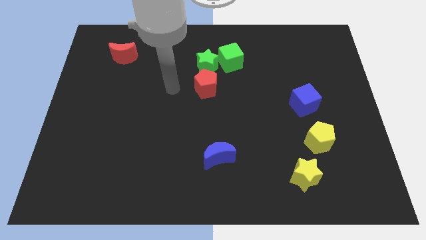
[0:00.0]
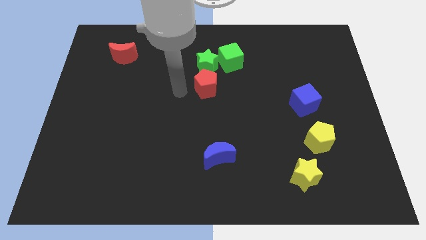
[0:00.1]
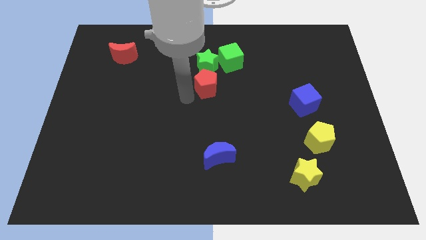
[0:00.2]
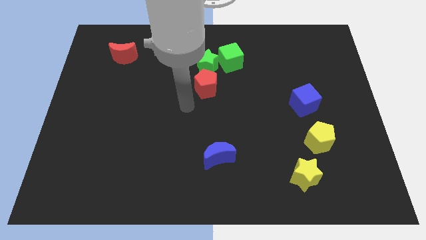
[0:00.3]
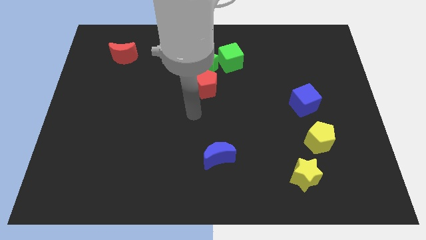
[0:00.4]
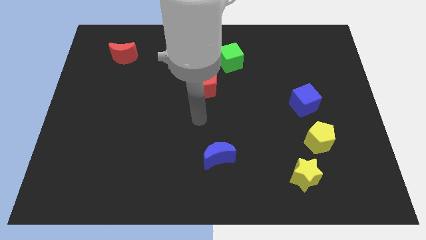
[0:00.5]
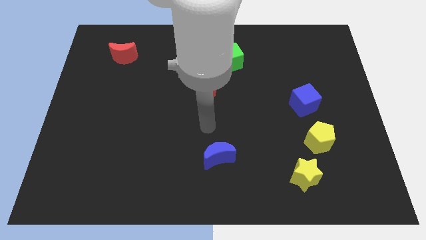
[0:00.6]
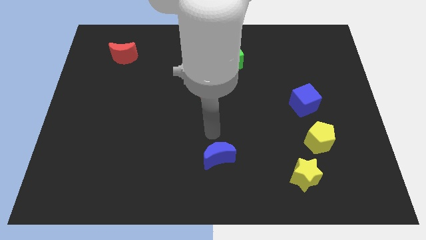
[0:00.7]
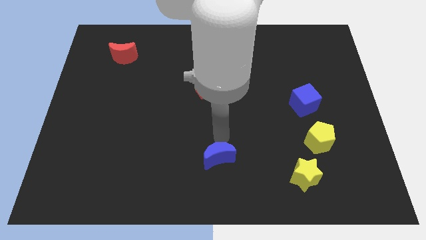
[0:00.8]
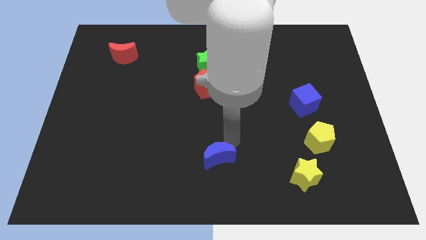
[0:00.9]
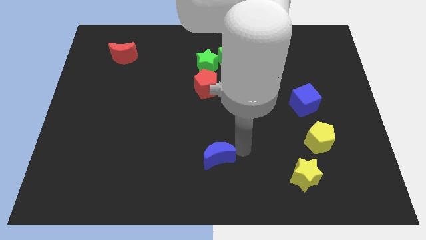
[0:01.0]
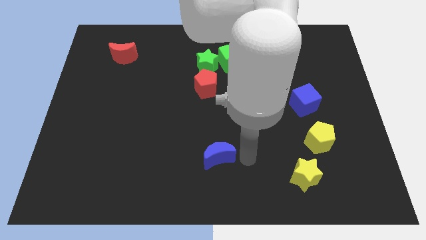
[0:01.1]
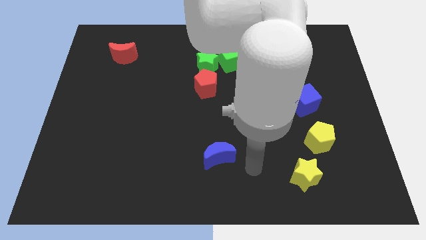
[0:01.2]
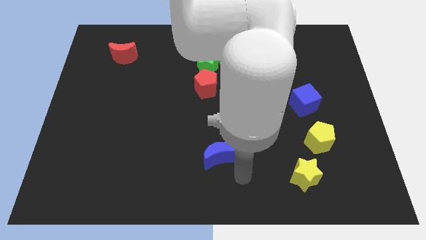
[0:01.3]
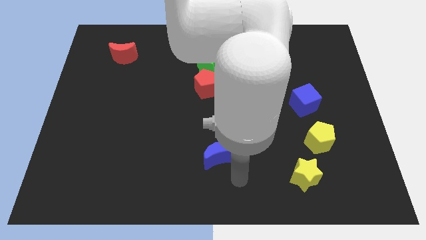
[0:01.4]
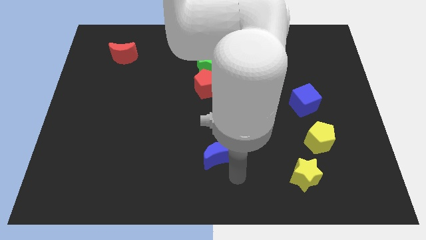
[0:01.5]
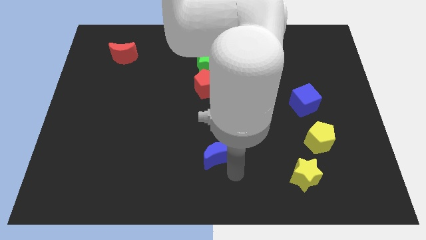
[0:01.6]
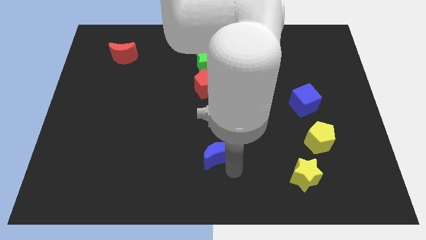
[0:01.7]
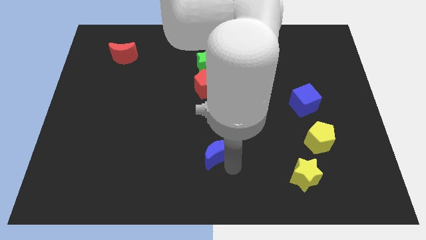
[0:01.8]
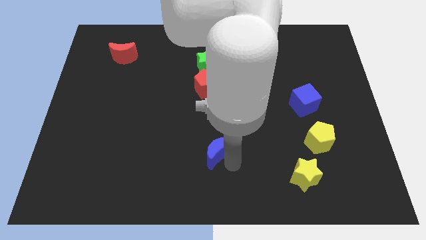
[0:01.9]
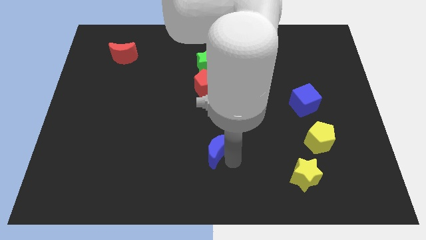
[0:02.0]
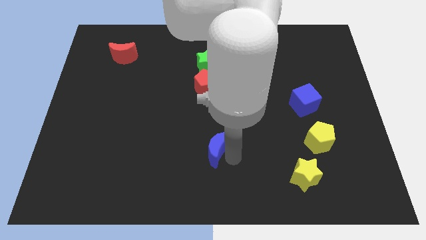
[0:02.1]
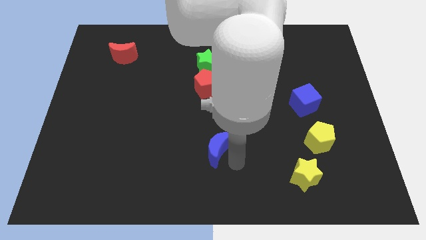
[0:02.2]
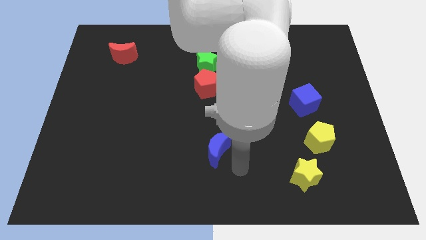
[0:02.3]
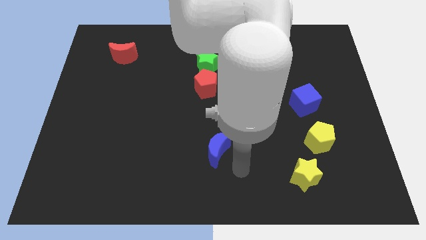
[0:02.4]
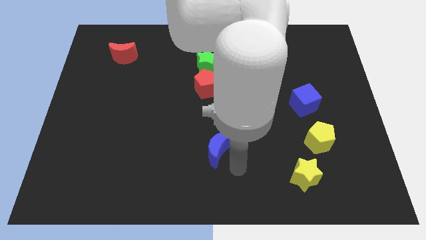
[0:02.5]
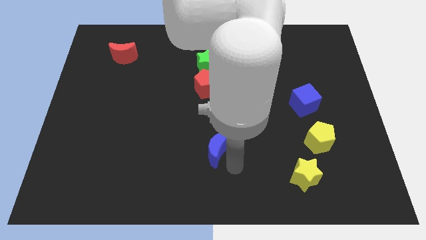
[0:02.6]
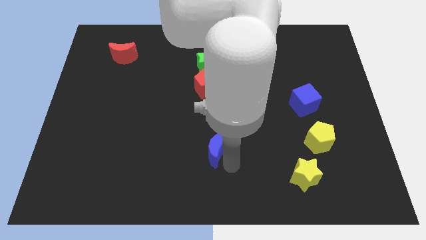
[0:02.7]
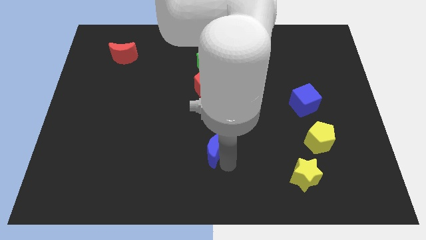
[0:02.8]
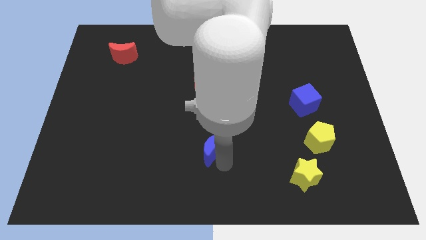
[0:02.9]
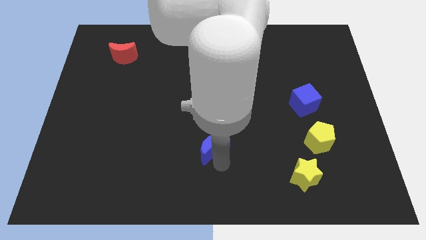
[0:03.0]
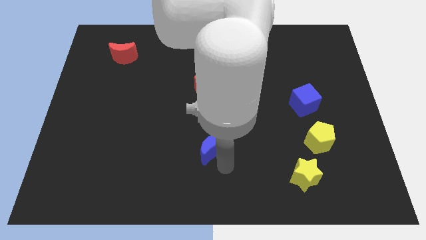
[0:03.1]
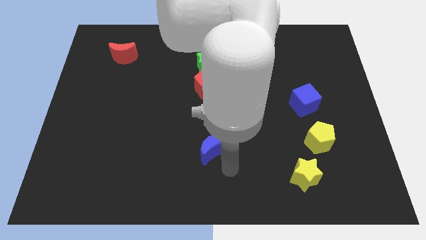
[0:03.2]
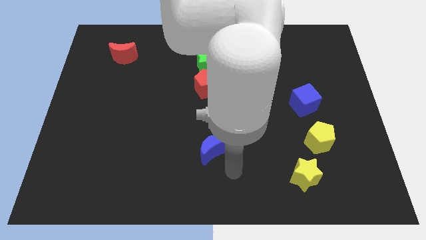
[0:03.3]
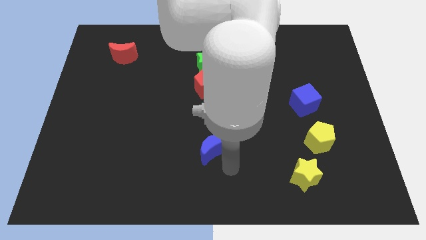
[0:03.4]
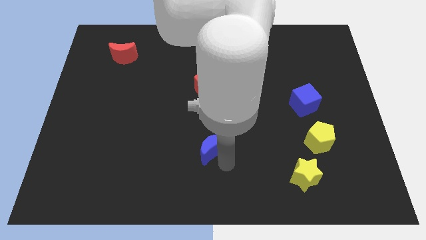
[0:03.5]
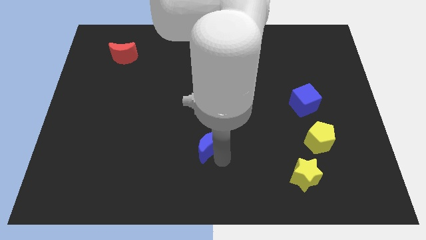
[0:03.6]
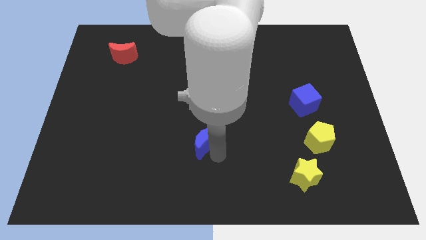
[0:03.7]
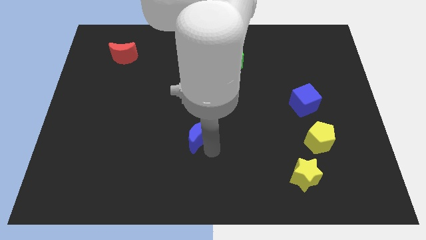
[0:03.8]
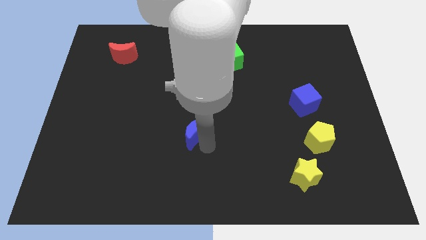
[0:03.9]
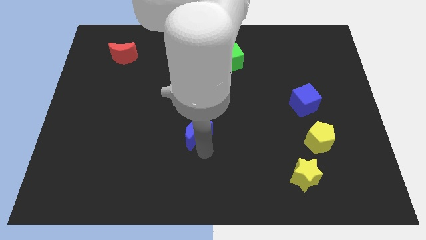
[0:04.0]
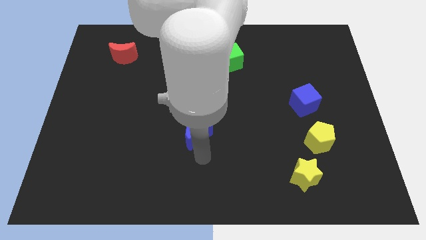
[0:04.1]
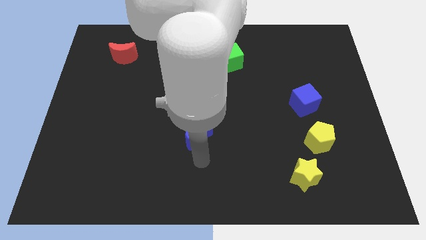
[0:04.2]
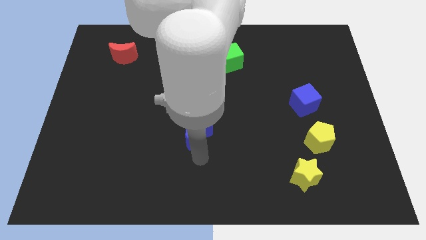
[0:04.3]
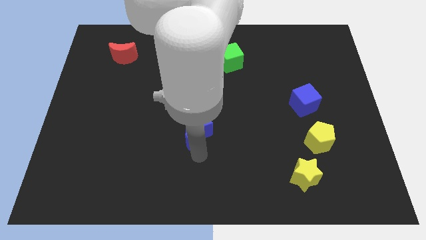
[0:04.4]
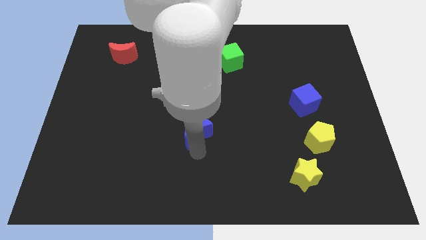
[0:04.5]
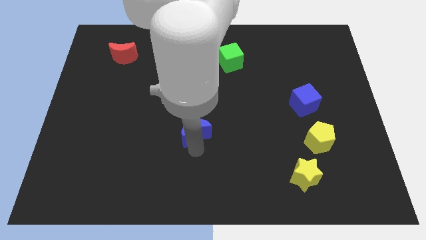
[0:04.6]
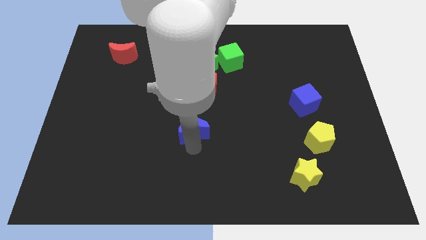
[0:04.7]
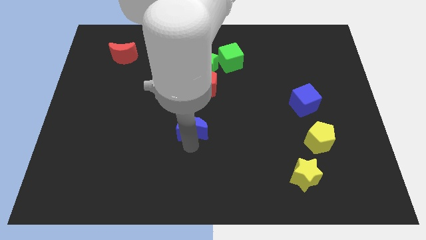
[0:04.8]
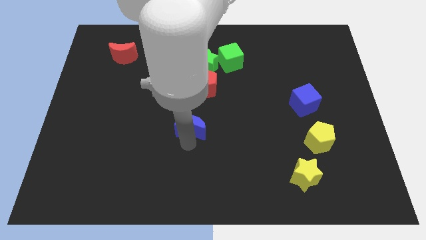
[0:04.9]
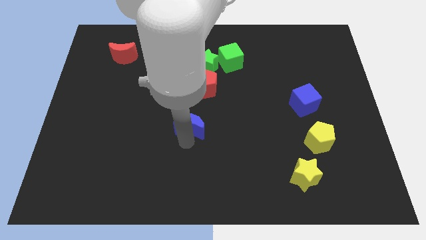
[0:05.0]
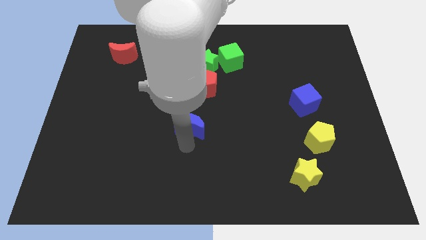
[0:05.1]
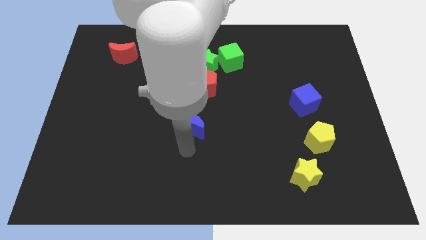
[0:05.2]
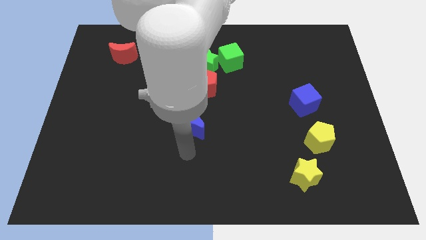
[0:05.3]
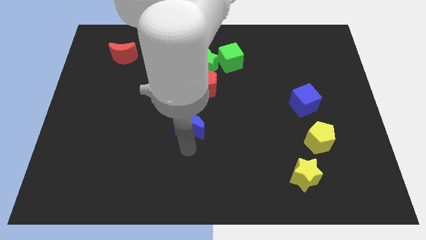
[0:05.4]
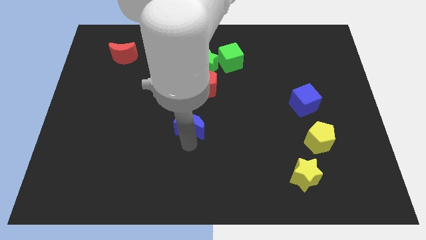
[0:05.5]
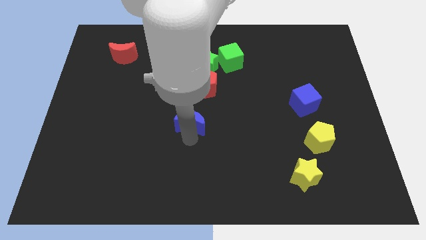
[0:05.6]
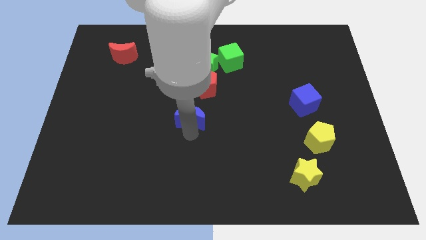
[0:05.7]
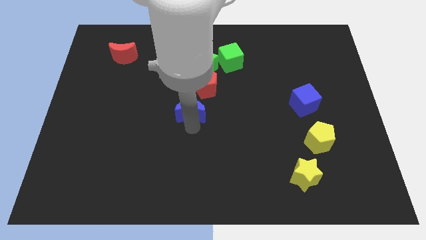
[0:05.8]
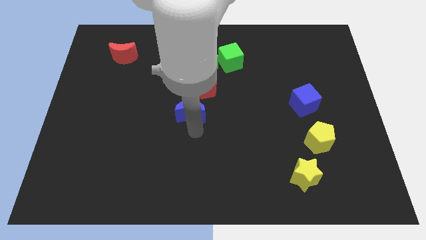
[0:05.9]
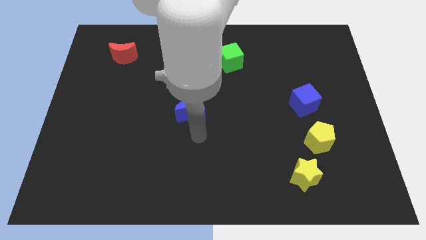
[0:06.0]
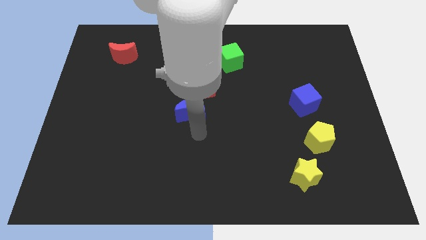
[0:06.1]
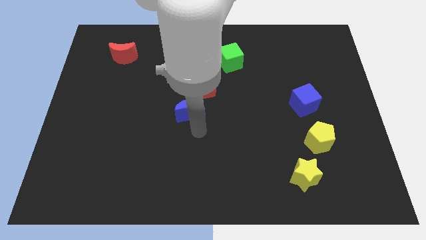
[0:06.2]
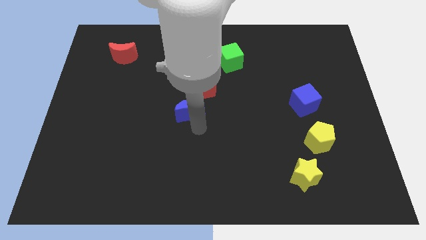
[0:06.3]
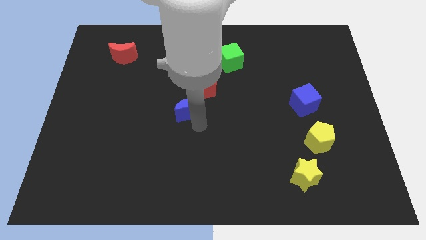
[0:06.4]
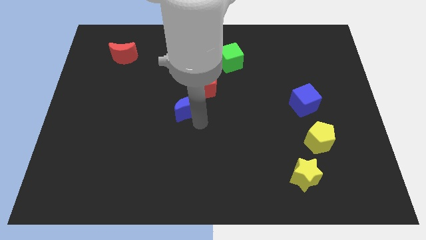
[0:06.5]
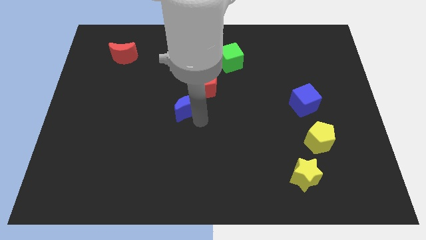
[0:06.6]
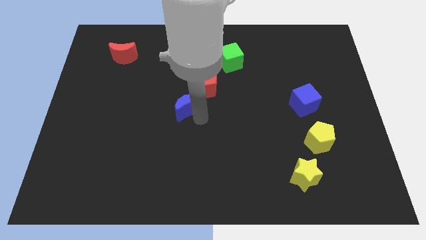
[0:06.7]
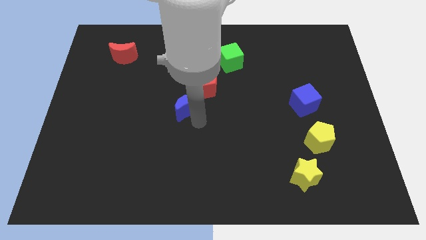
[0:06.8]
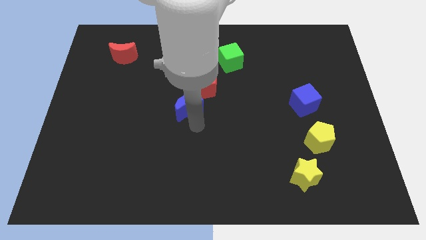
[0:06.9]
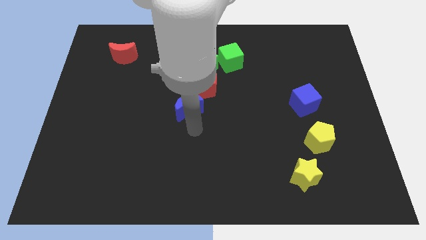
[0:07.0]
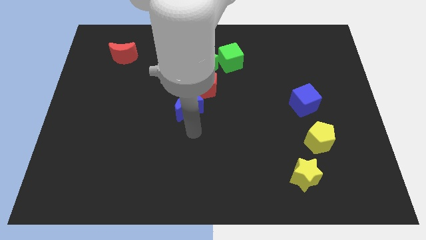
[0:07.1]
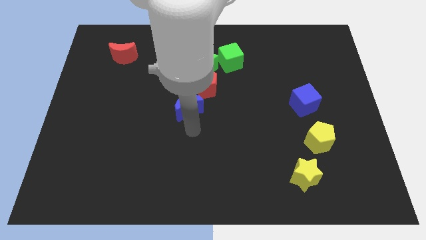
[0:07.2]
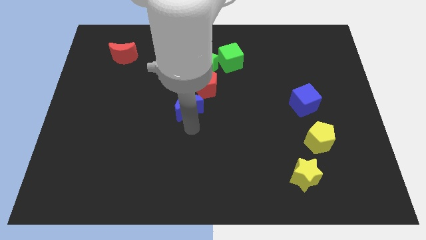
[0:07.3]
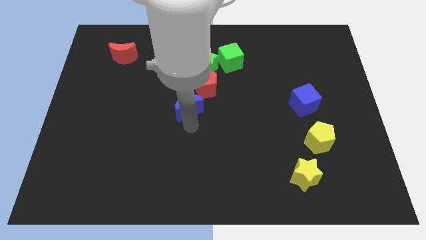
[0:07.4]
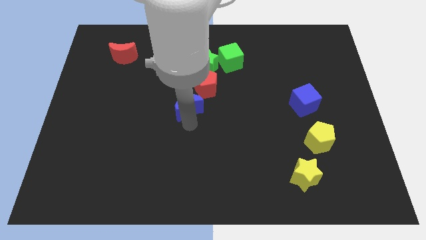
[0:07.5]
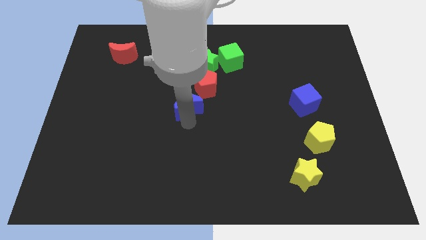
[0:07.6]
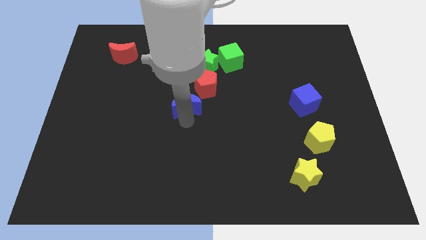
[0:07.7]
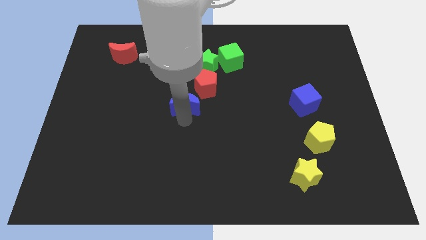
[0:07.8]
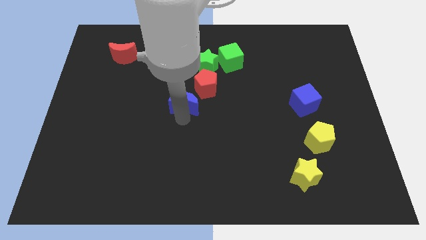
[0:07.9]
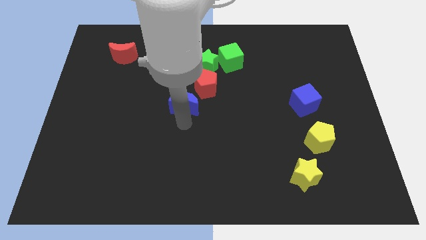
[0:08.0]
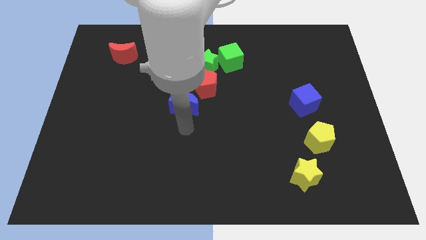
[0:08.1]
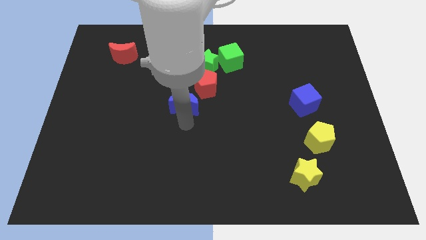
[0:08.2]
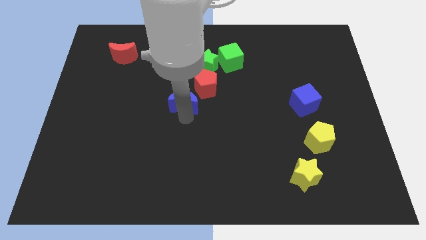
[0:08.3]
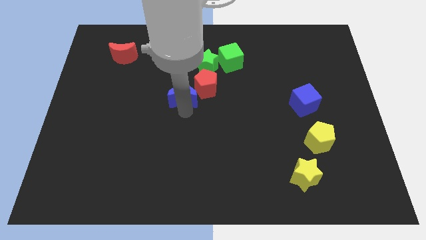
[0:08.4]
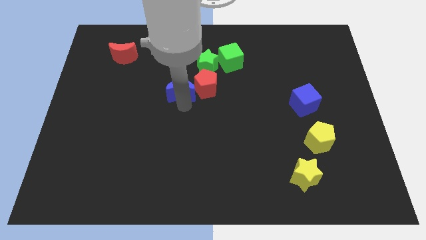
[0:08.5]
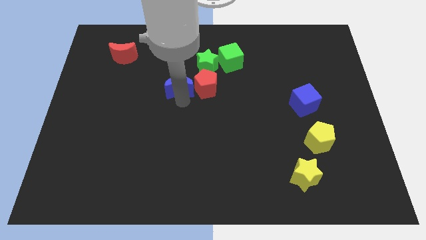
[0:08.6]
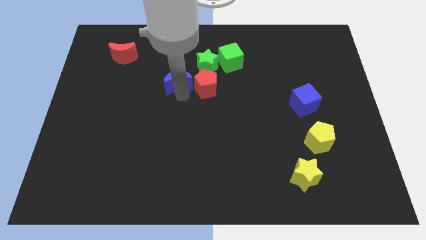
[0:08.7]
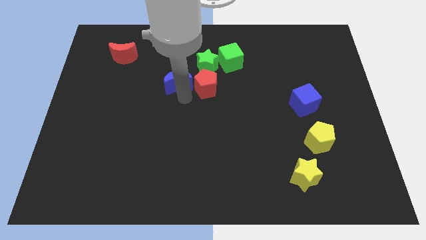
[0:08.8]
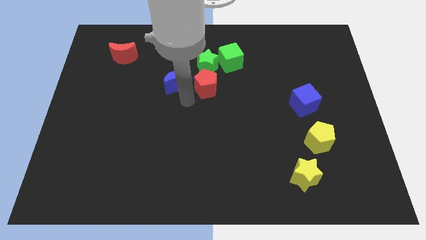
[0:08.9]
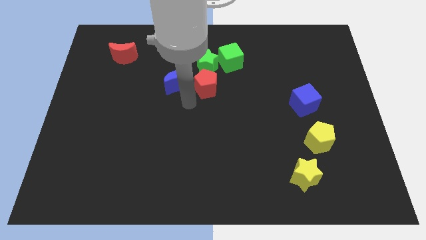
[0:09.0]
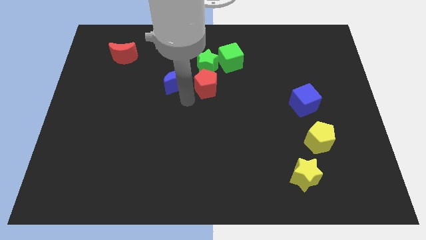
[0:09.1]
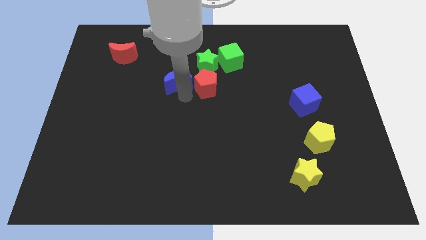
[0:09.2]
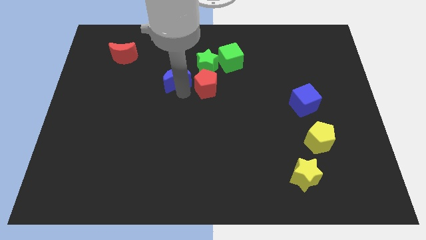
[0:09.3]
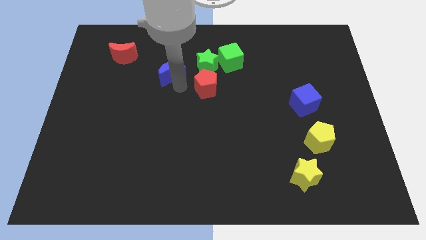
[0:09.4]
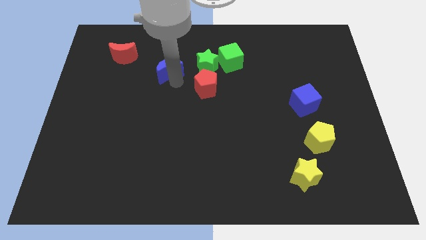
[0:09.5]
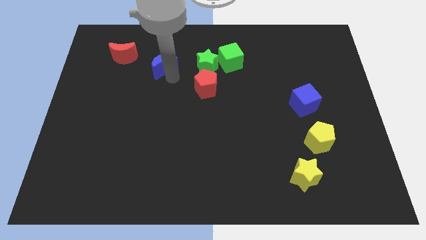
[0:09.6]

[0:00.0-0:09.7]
push the blue moon to the right side of the red moon
